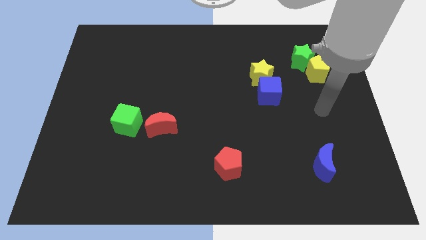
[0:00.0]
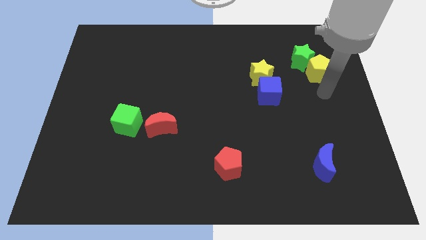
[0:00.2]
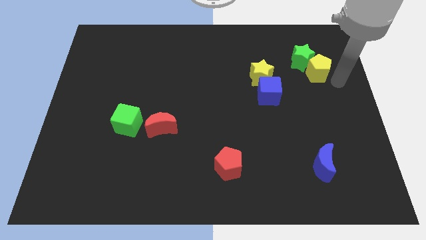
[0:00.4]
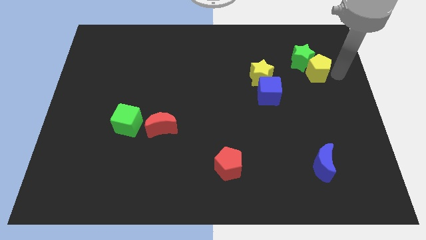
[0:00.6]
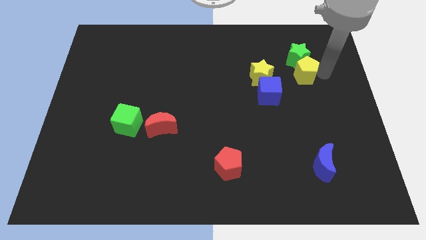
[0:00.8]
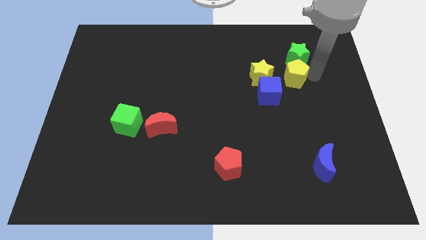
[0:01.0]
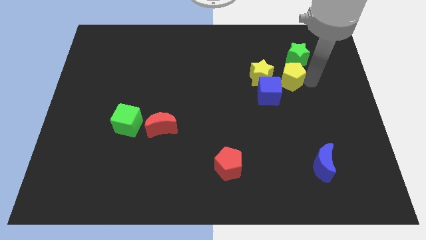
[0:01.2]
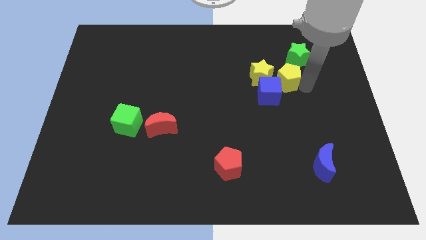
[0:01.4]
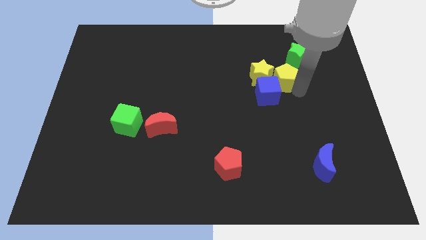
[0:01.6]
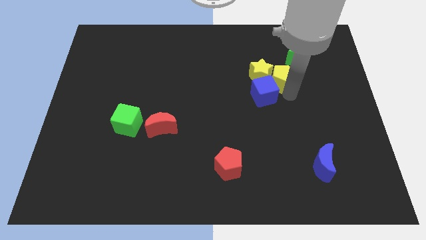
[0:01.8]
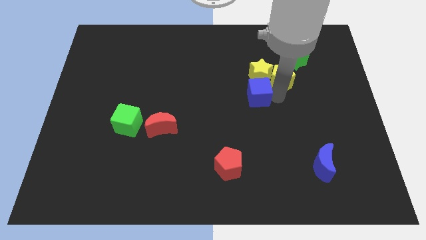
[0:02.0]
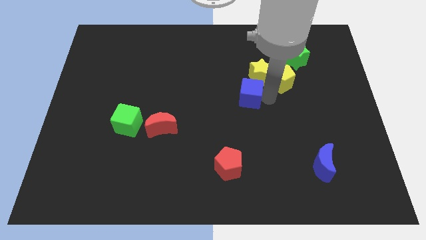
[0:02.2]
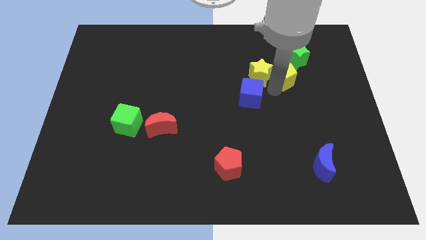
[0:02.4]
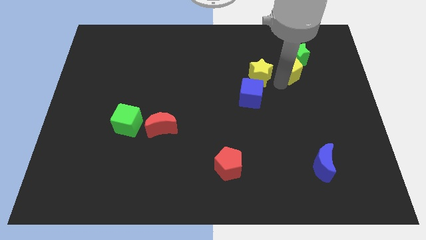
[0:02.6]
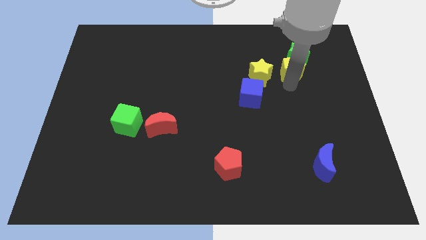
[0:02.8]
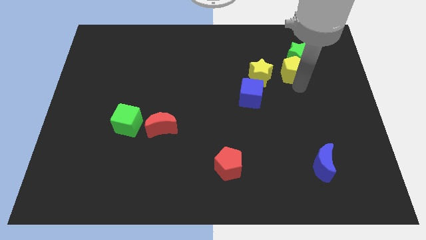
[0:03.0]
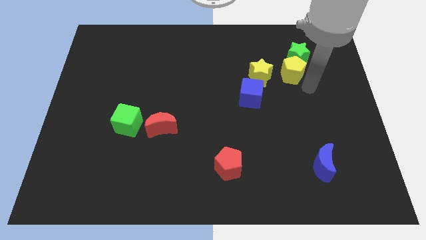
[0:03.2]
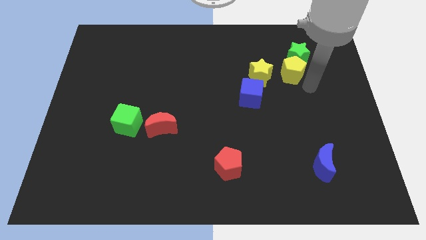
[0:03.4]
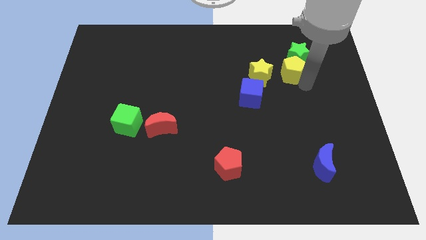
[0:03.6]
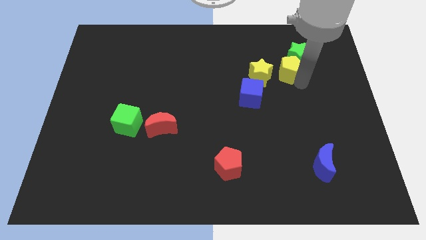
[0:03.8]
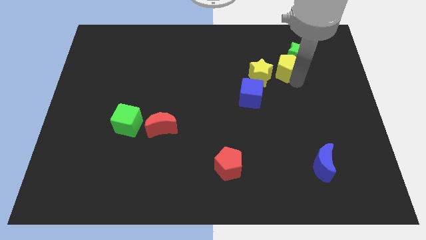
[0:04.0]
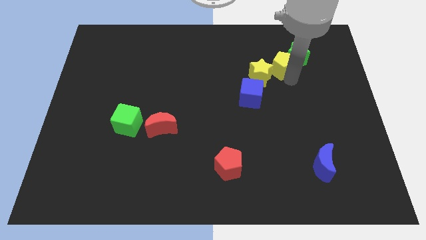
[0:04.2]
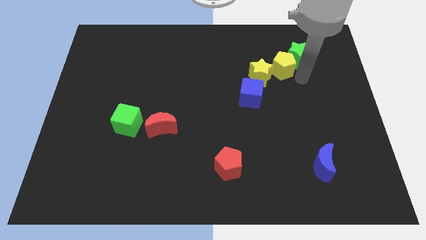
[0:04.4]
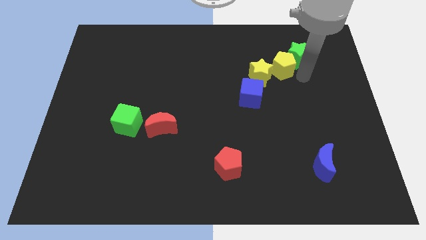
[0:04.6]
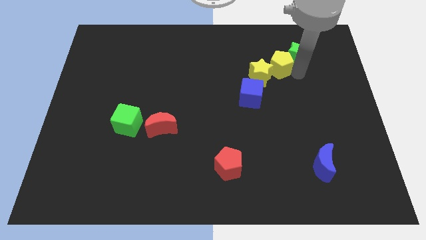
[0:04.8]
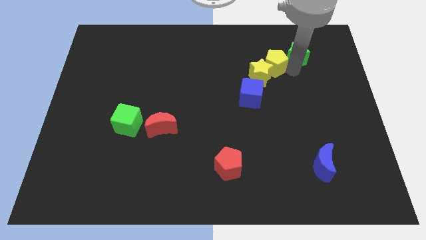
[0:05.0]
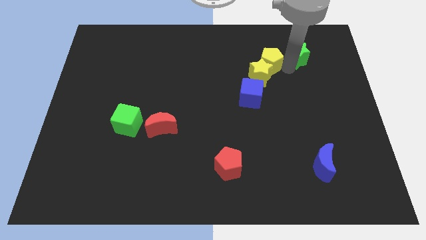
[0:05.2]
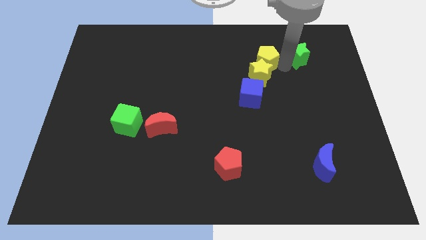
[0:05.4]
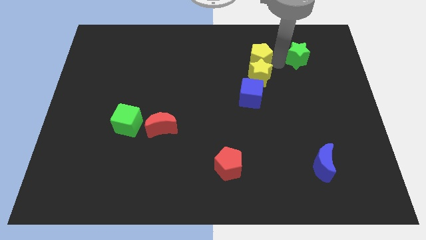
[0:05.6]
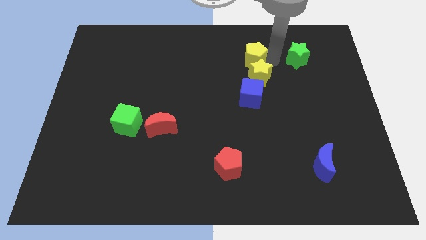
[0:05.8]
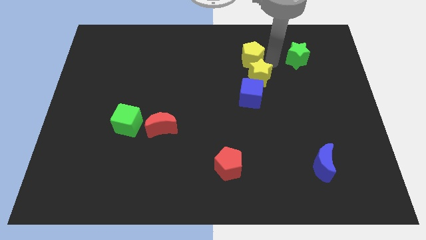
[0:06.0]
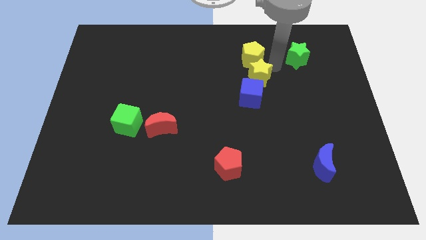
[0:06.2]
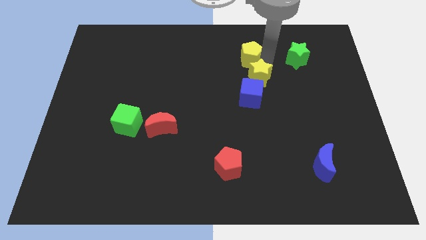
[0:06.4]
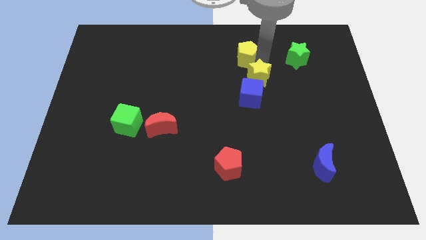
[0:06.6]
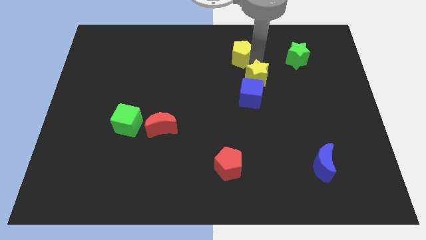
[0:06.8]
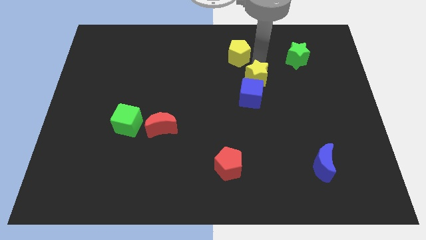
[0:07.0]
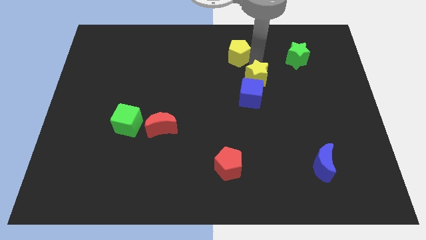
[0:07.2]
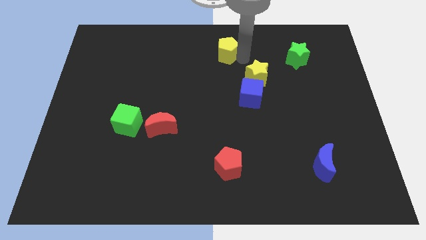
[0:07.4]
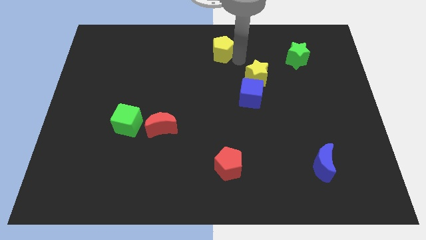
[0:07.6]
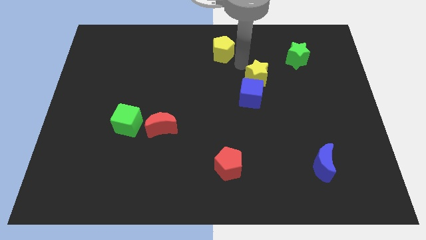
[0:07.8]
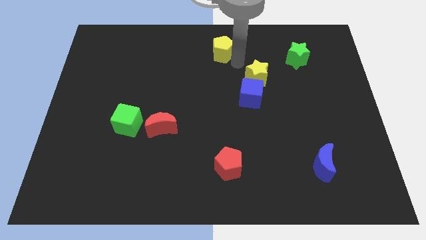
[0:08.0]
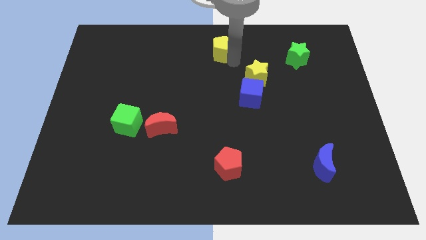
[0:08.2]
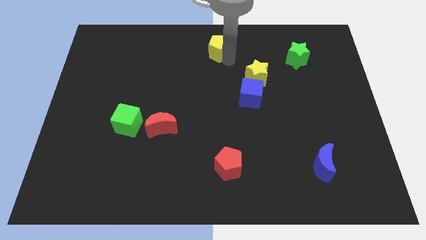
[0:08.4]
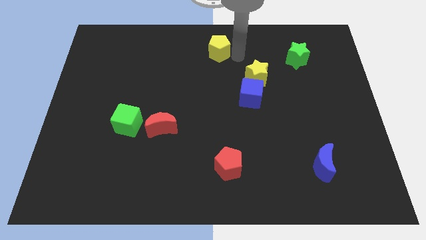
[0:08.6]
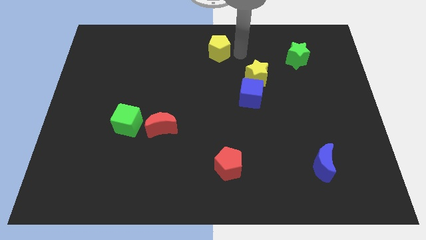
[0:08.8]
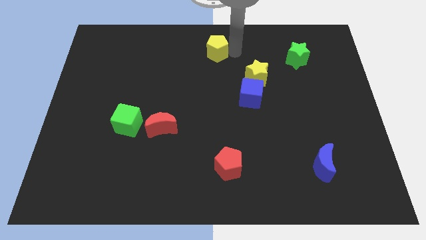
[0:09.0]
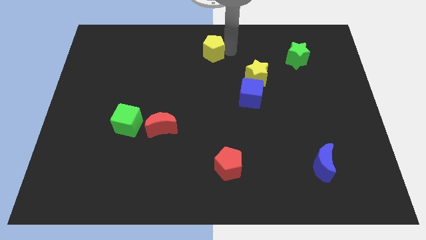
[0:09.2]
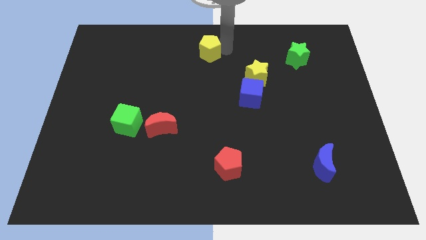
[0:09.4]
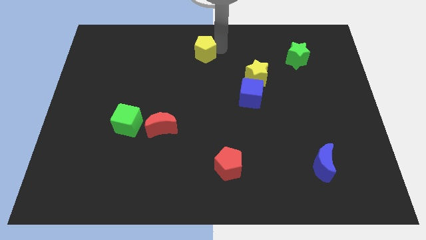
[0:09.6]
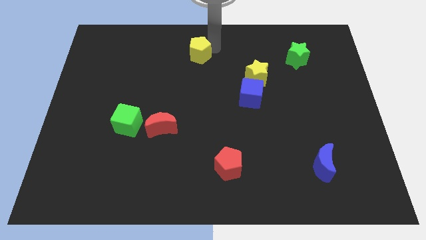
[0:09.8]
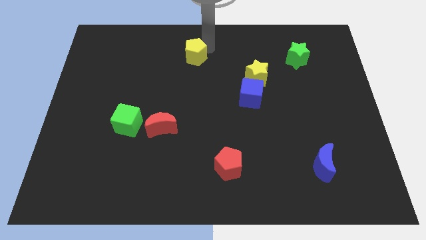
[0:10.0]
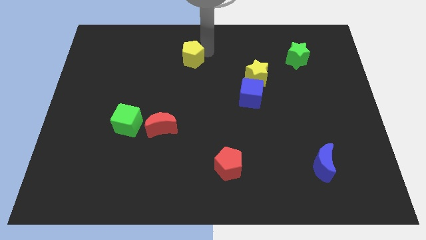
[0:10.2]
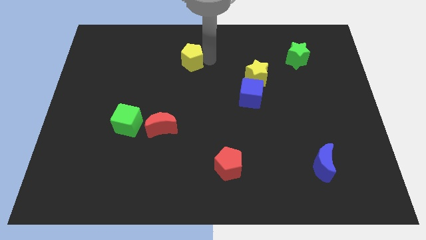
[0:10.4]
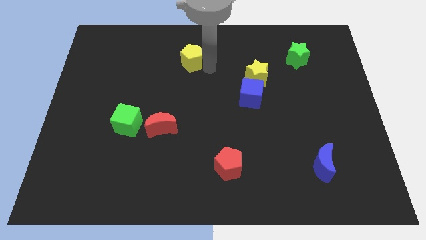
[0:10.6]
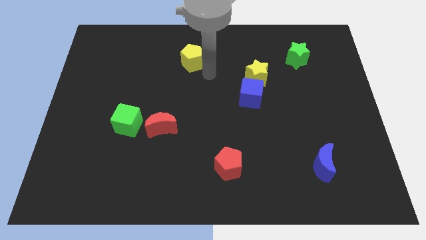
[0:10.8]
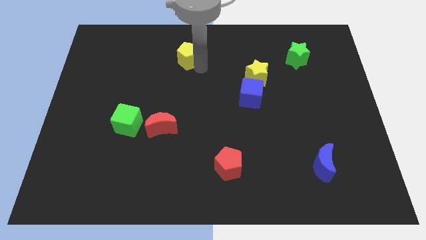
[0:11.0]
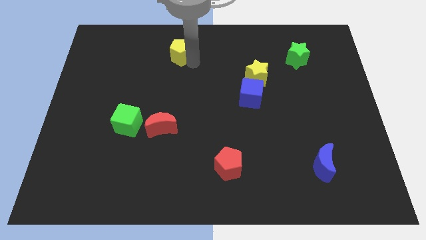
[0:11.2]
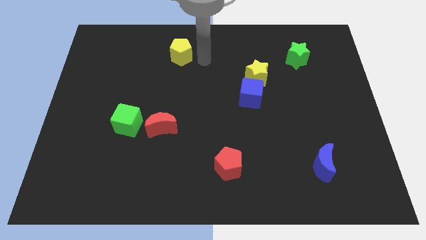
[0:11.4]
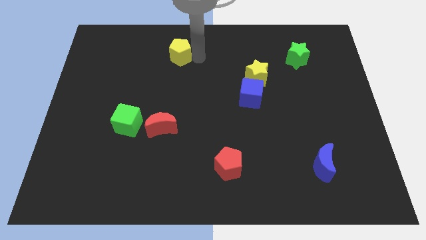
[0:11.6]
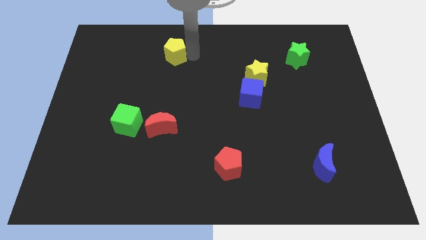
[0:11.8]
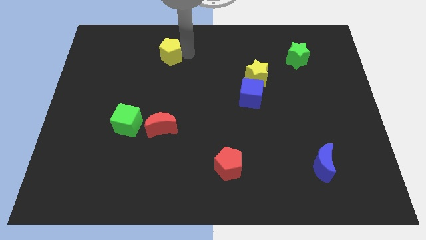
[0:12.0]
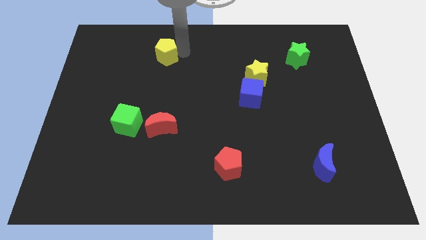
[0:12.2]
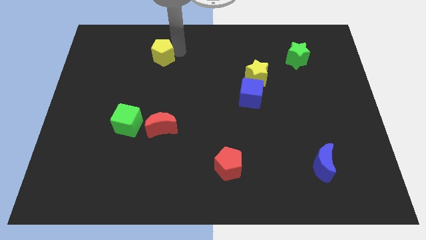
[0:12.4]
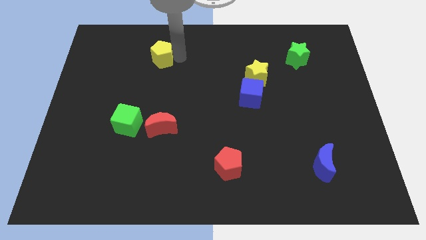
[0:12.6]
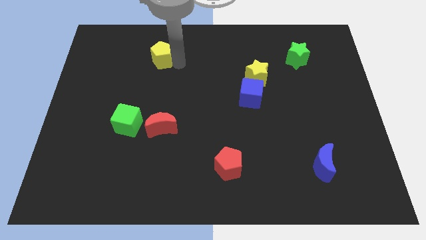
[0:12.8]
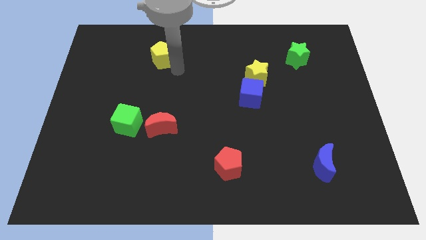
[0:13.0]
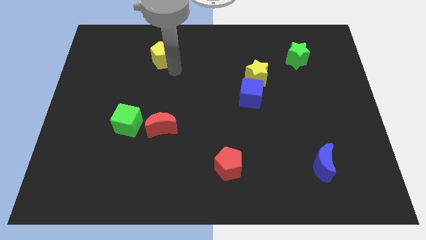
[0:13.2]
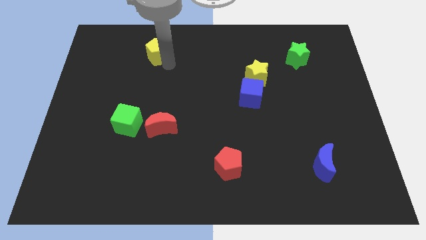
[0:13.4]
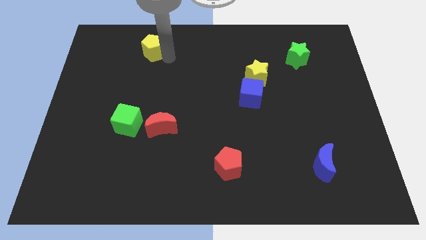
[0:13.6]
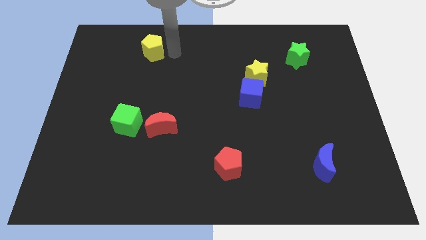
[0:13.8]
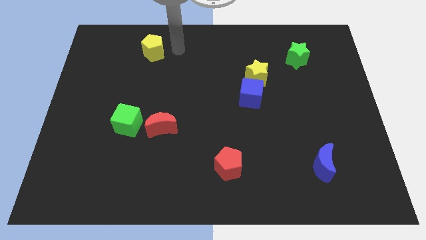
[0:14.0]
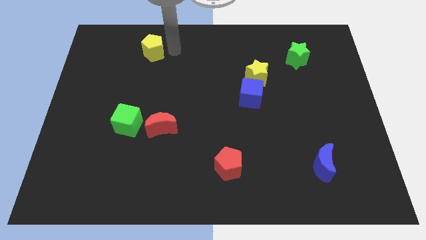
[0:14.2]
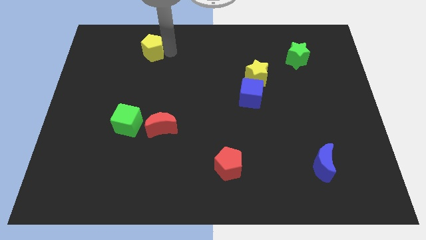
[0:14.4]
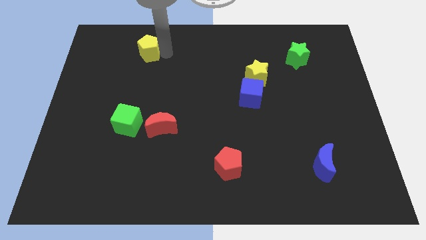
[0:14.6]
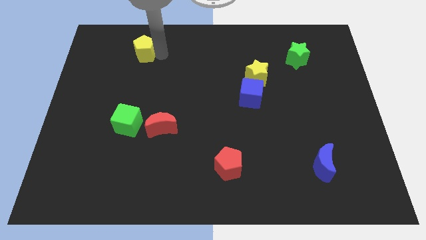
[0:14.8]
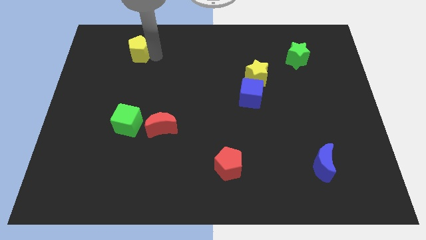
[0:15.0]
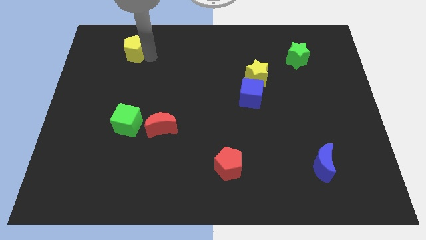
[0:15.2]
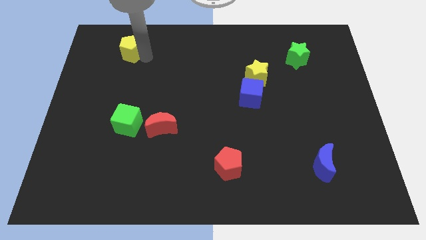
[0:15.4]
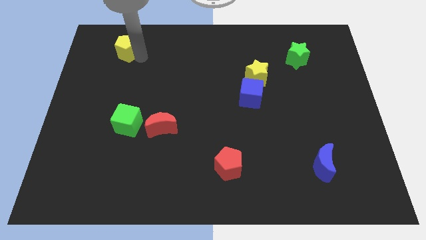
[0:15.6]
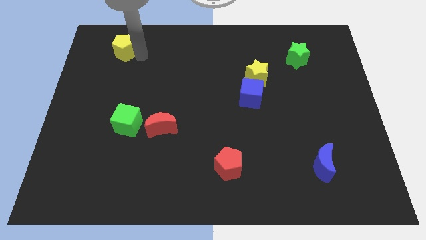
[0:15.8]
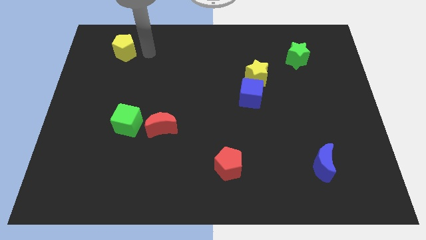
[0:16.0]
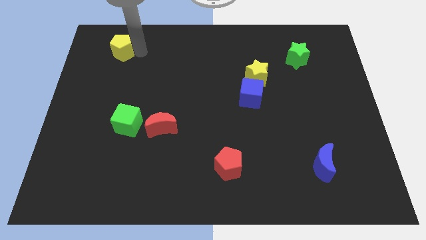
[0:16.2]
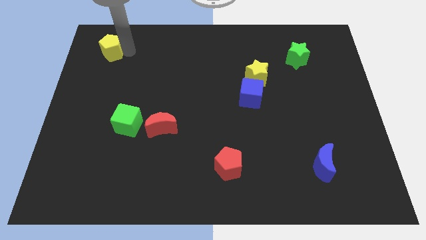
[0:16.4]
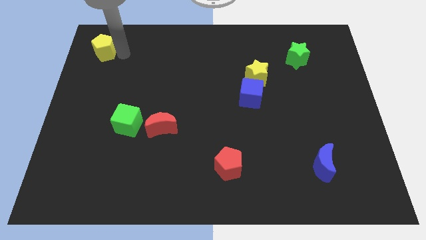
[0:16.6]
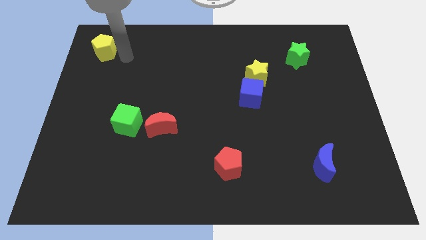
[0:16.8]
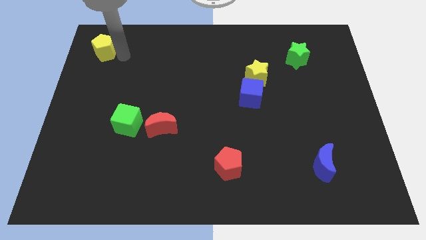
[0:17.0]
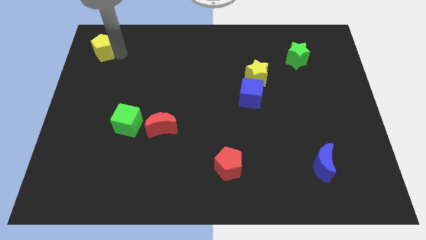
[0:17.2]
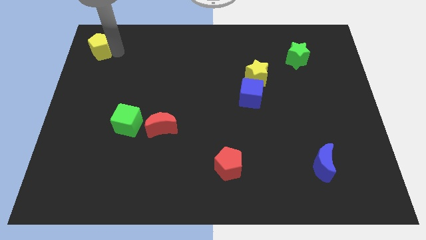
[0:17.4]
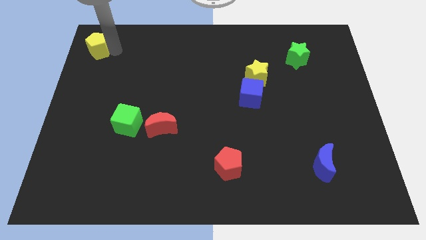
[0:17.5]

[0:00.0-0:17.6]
push the yellow pentagon to the top left of the board
